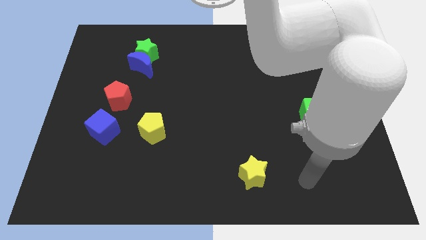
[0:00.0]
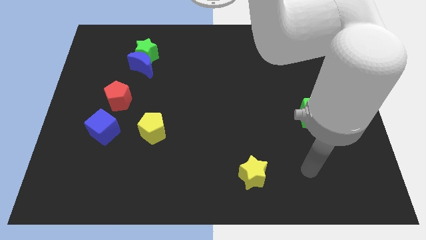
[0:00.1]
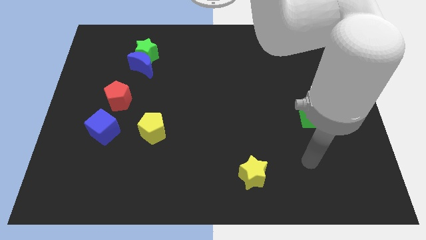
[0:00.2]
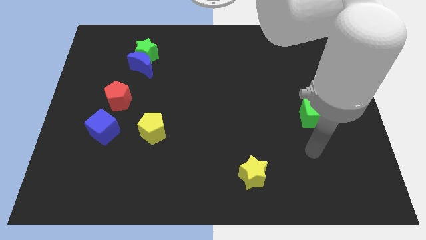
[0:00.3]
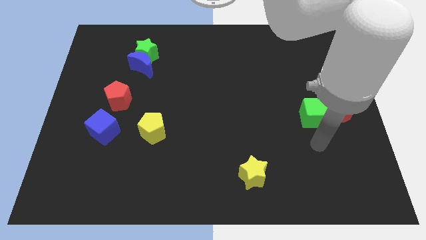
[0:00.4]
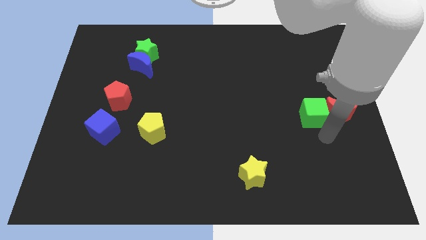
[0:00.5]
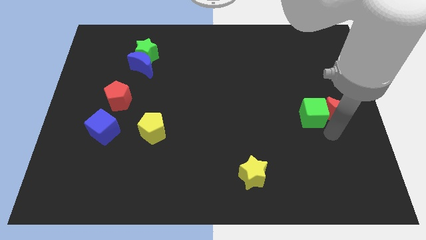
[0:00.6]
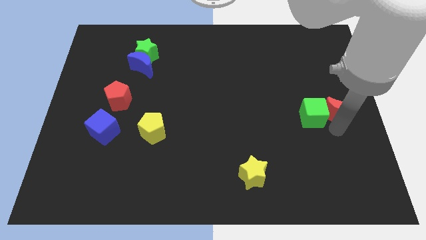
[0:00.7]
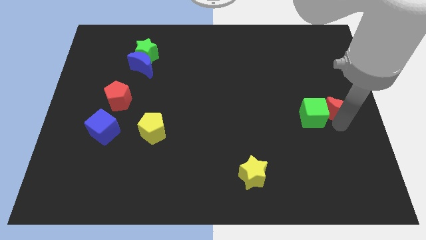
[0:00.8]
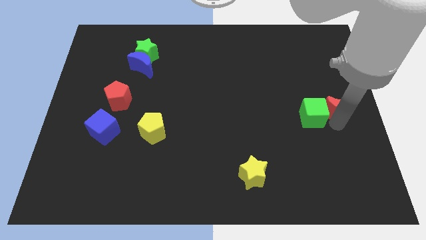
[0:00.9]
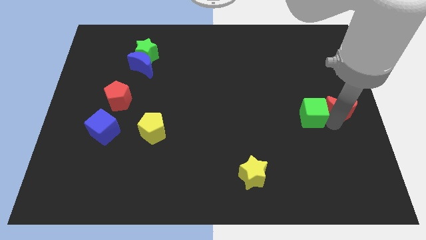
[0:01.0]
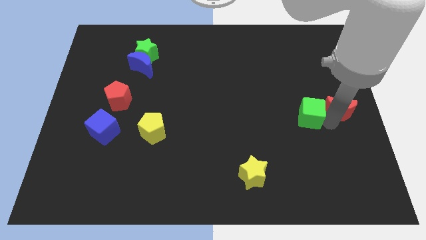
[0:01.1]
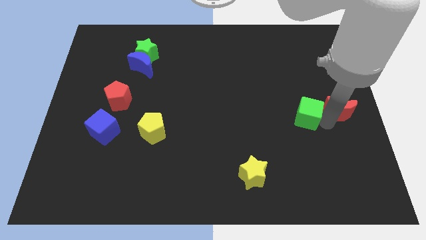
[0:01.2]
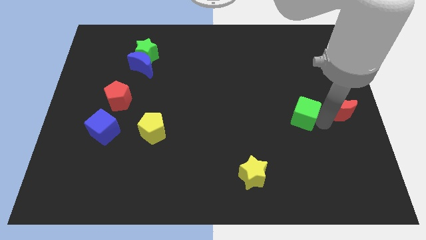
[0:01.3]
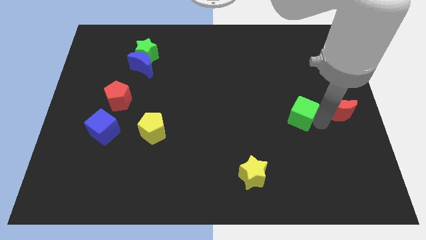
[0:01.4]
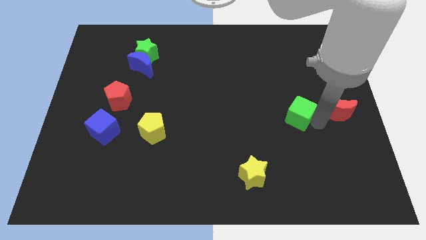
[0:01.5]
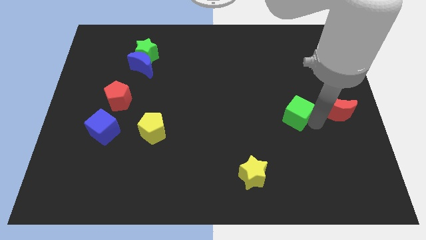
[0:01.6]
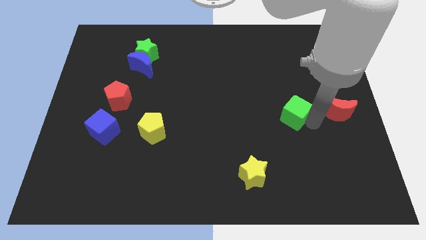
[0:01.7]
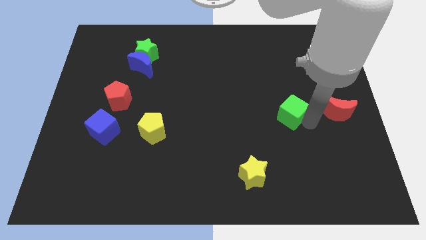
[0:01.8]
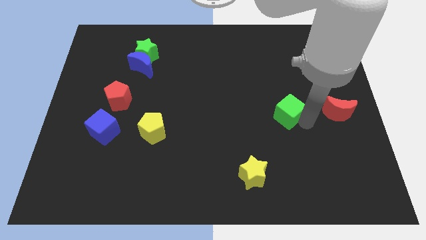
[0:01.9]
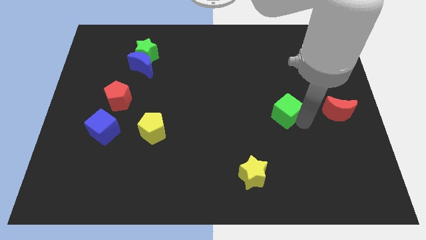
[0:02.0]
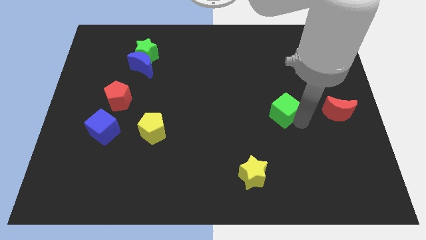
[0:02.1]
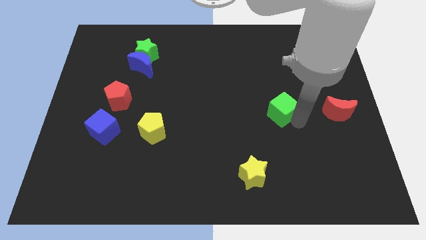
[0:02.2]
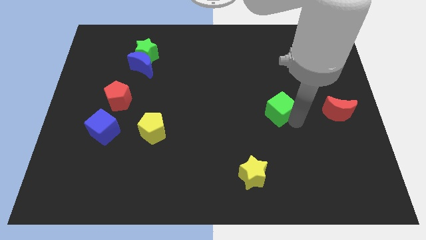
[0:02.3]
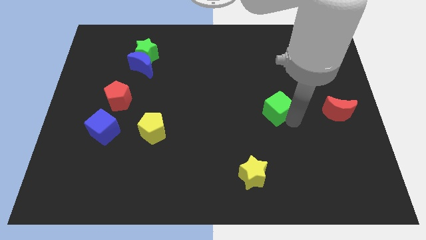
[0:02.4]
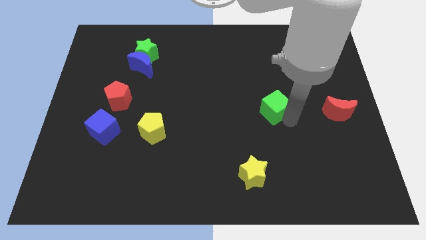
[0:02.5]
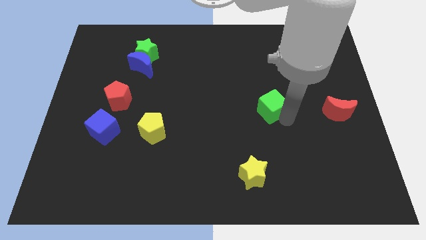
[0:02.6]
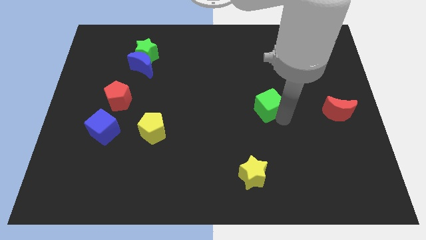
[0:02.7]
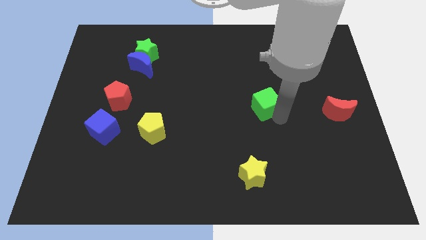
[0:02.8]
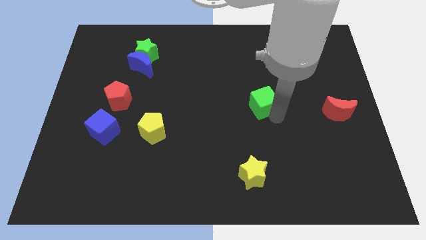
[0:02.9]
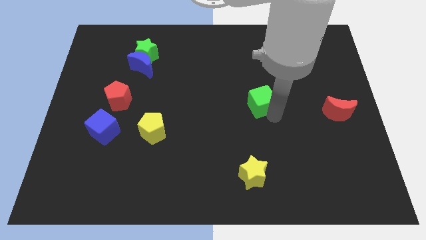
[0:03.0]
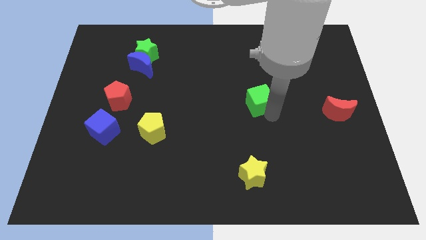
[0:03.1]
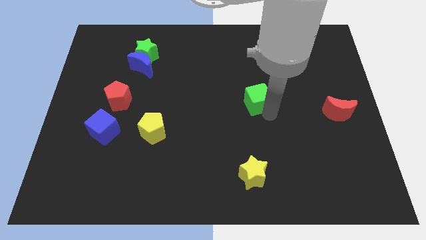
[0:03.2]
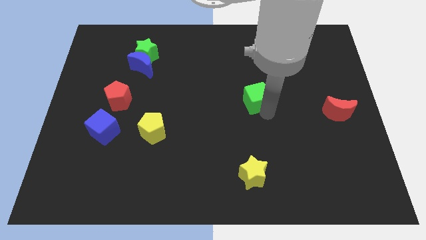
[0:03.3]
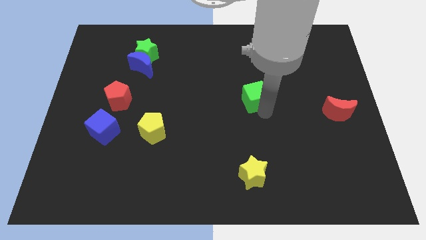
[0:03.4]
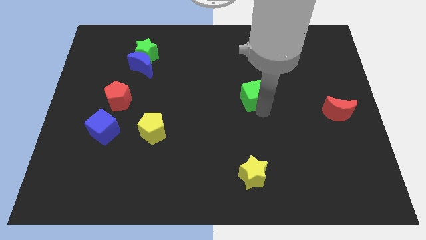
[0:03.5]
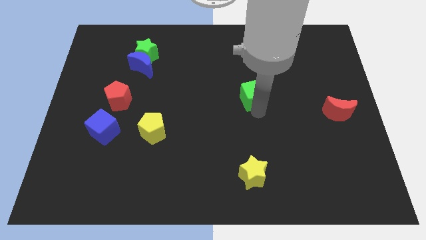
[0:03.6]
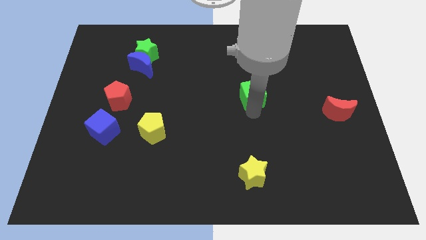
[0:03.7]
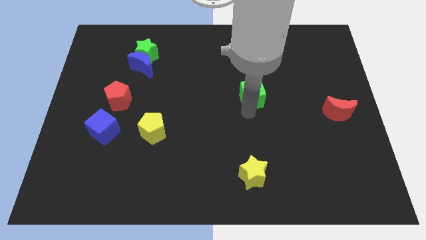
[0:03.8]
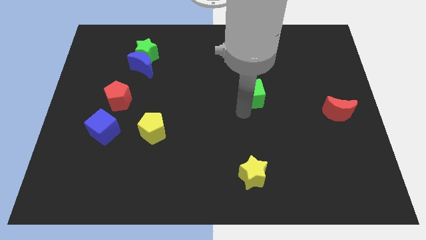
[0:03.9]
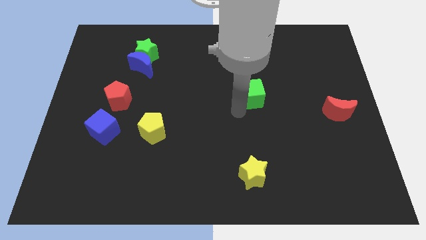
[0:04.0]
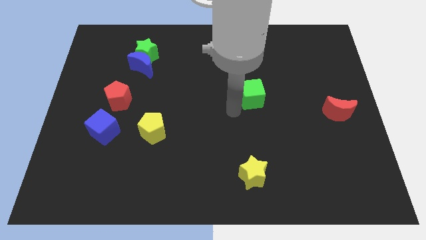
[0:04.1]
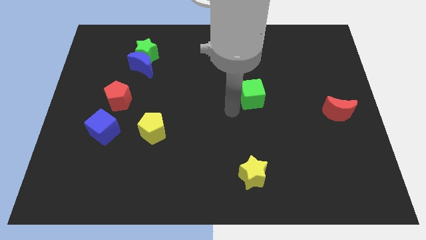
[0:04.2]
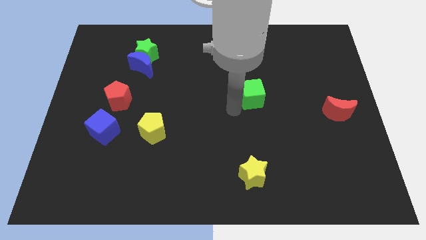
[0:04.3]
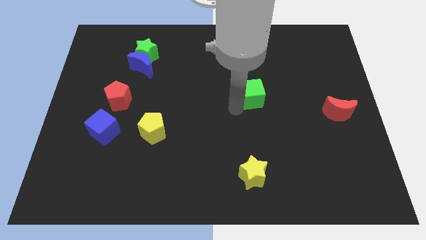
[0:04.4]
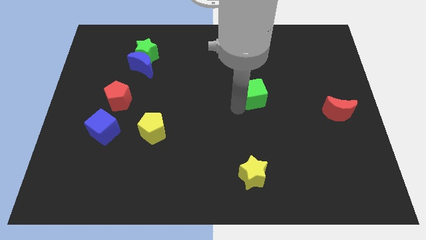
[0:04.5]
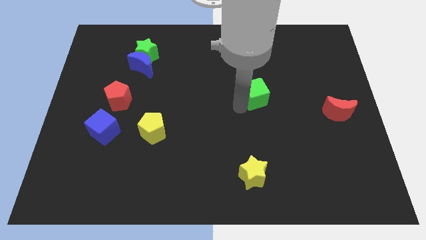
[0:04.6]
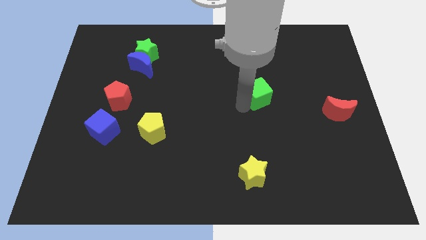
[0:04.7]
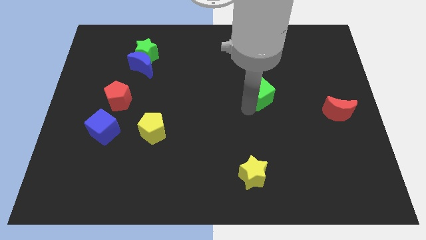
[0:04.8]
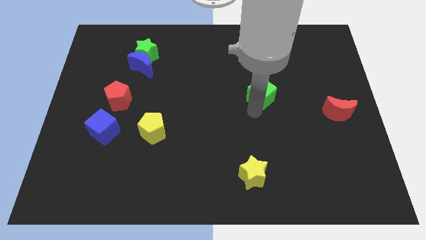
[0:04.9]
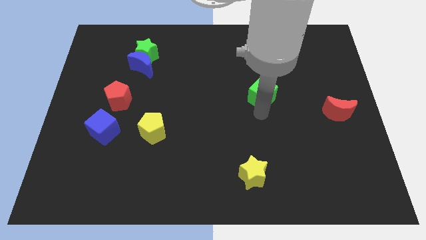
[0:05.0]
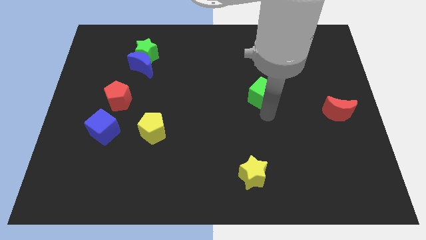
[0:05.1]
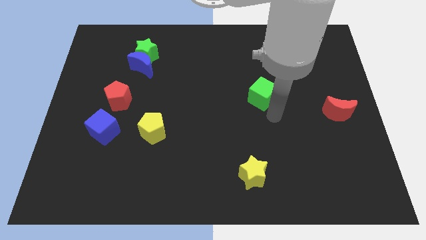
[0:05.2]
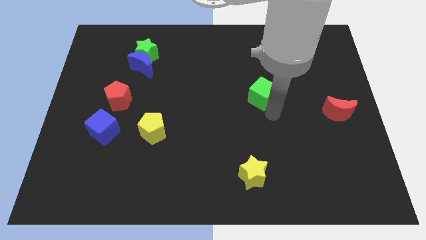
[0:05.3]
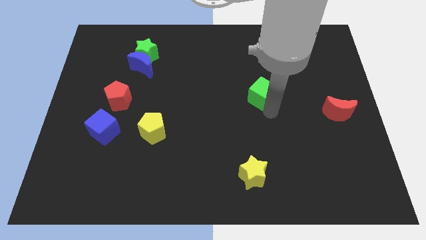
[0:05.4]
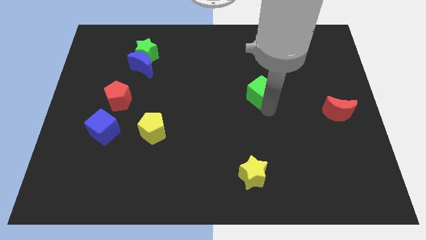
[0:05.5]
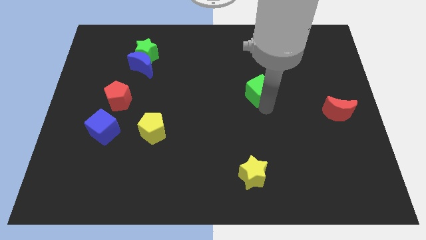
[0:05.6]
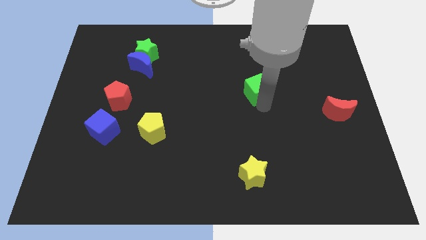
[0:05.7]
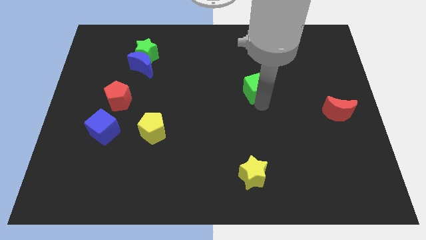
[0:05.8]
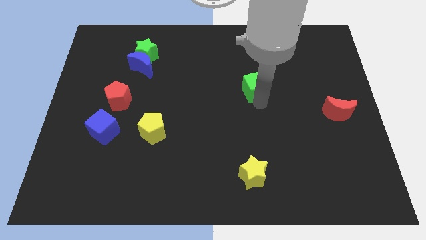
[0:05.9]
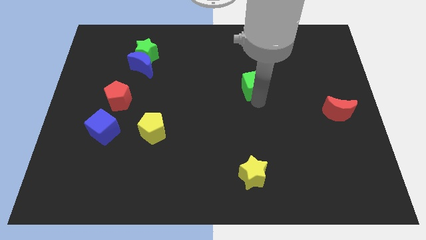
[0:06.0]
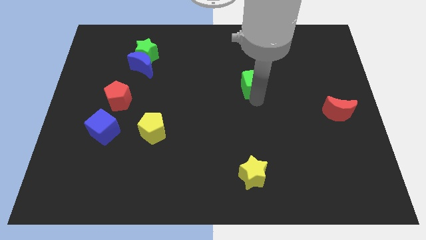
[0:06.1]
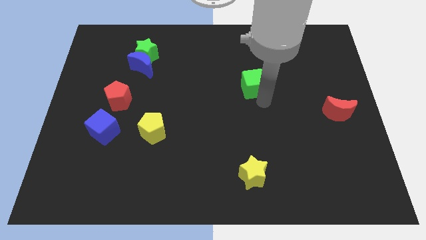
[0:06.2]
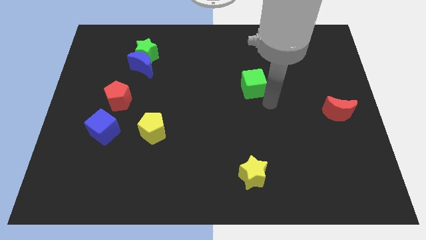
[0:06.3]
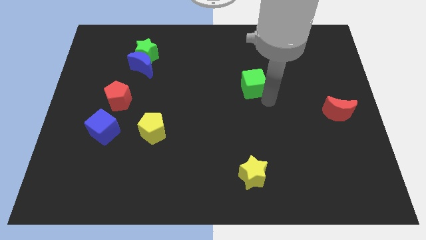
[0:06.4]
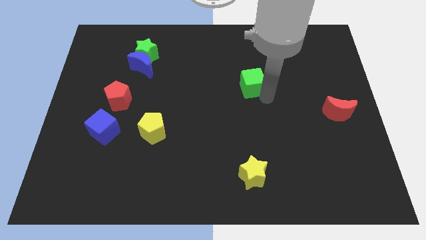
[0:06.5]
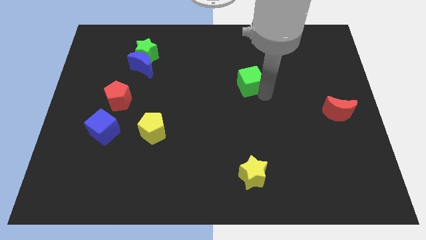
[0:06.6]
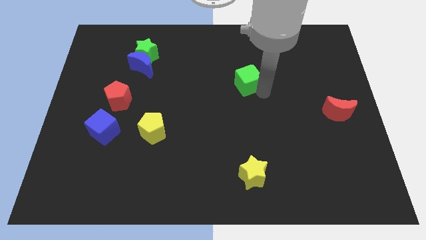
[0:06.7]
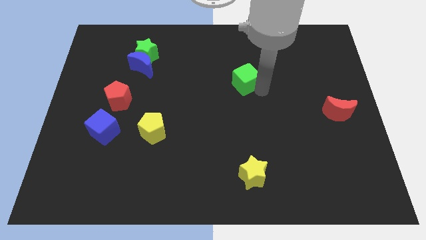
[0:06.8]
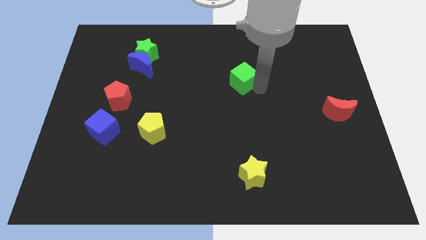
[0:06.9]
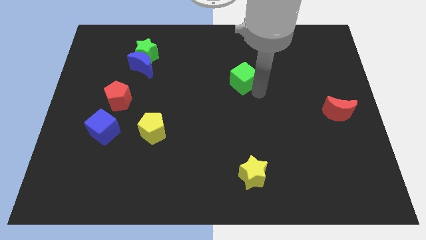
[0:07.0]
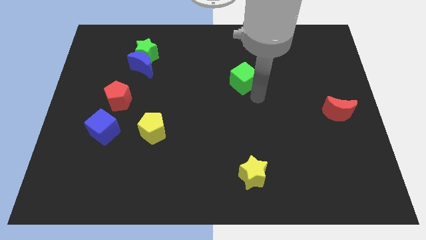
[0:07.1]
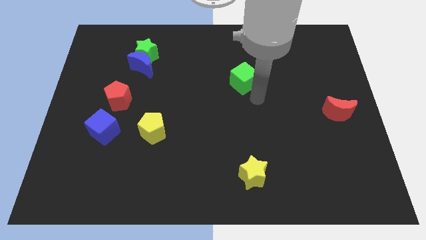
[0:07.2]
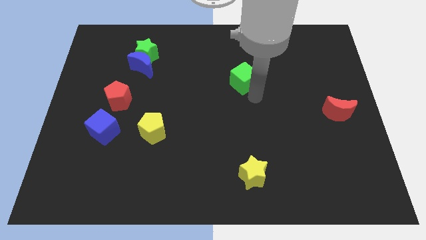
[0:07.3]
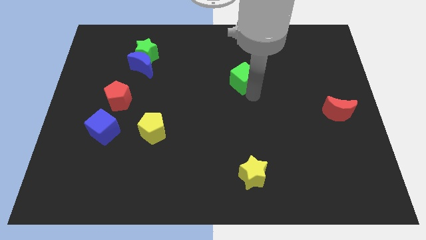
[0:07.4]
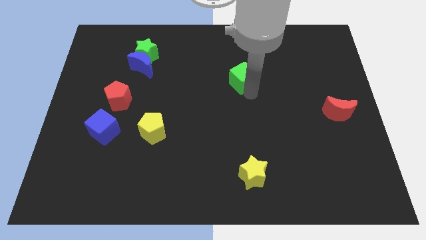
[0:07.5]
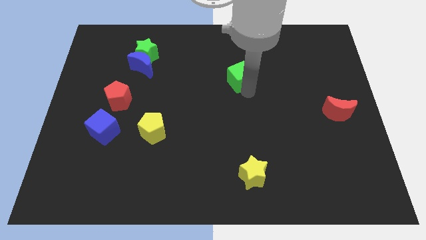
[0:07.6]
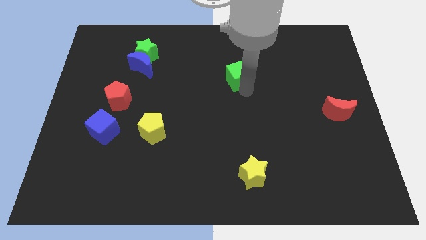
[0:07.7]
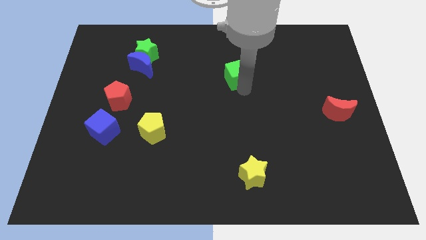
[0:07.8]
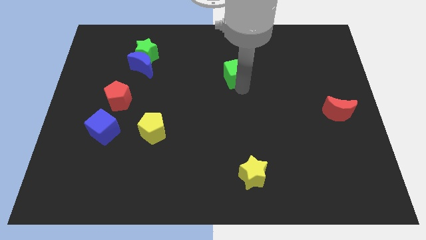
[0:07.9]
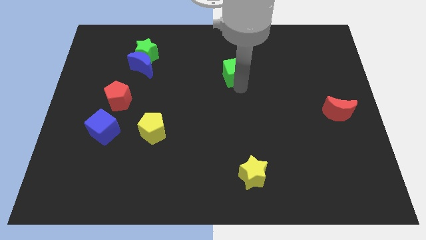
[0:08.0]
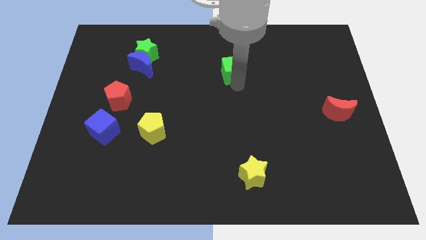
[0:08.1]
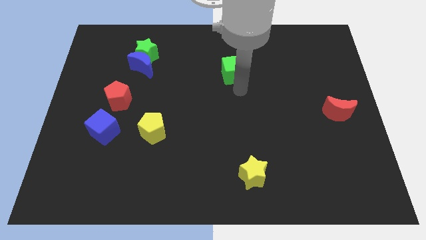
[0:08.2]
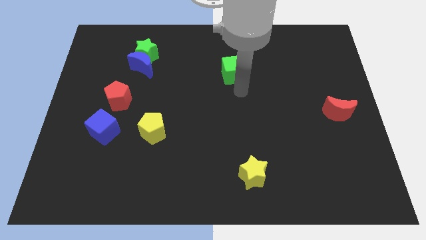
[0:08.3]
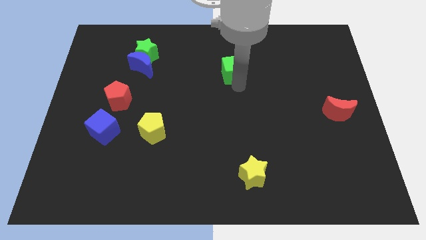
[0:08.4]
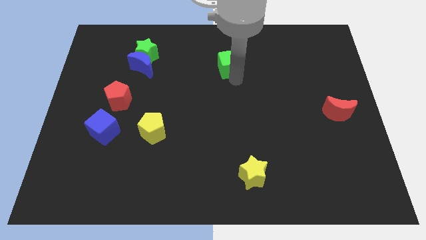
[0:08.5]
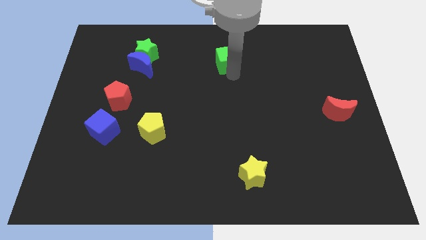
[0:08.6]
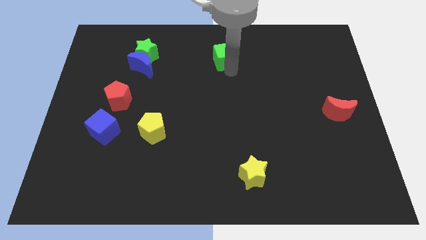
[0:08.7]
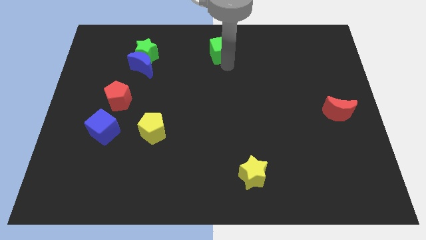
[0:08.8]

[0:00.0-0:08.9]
push the green cube to the top
